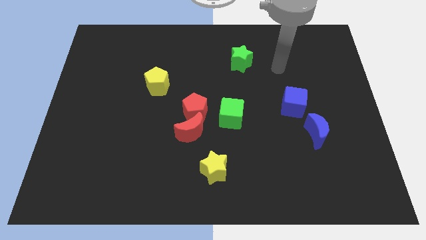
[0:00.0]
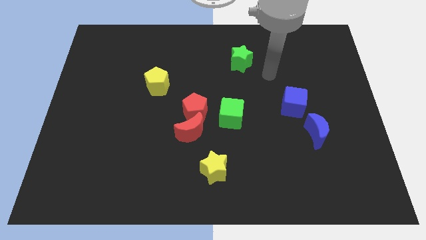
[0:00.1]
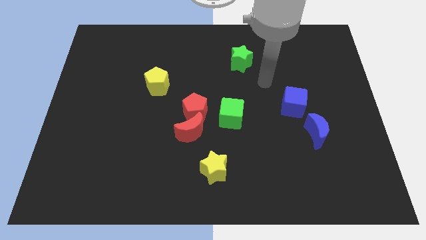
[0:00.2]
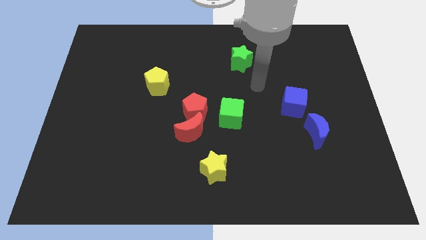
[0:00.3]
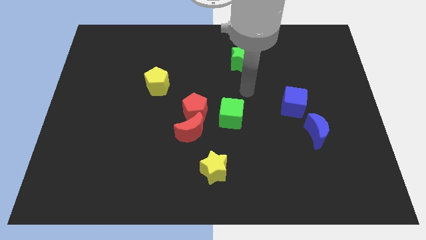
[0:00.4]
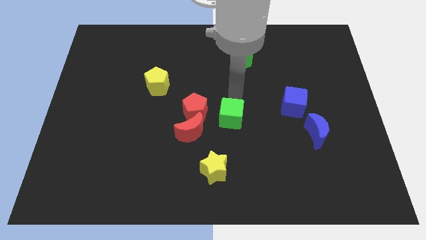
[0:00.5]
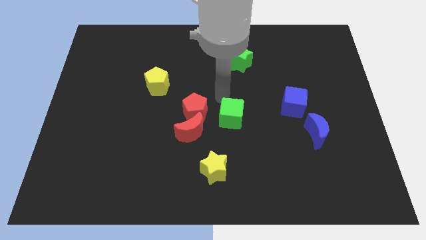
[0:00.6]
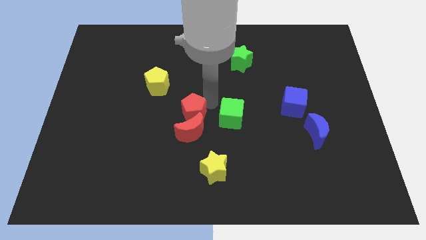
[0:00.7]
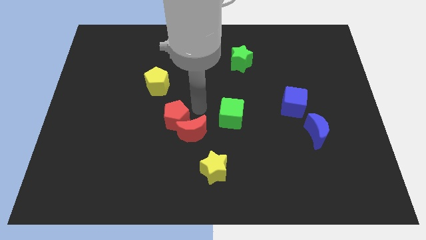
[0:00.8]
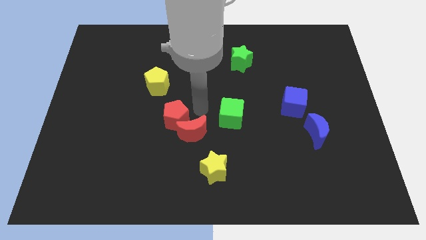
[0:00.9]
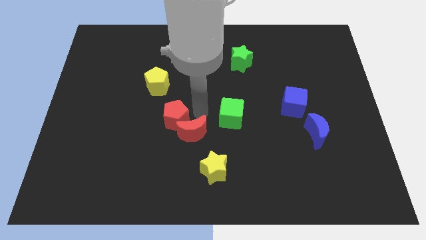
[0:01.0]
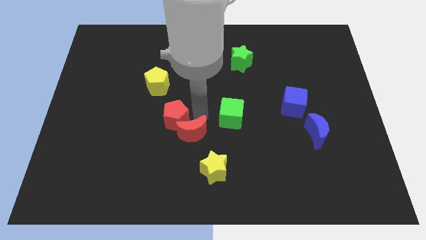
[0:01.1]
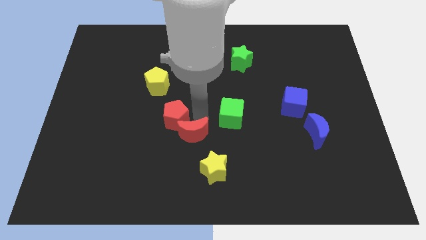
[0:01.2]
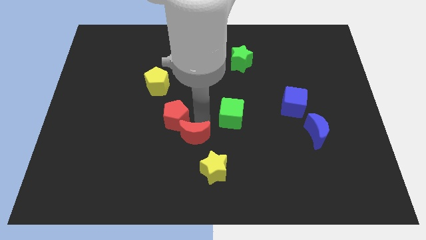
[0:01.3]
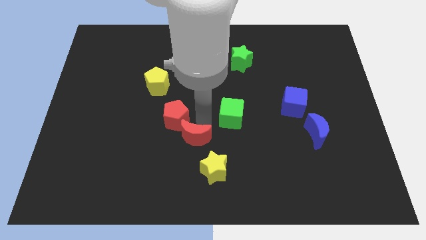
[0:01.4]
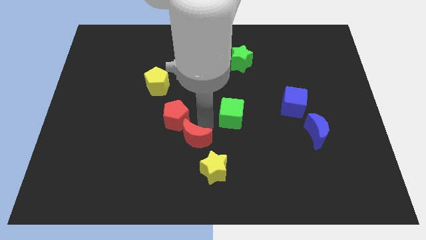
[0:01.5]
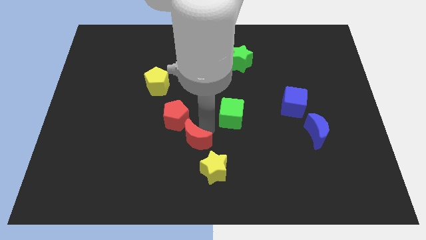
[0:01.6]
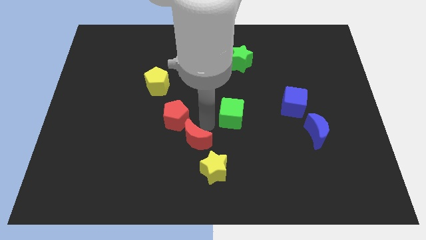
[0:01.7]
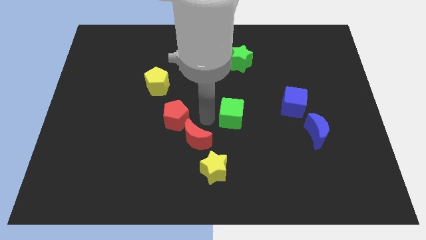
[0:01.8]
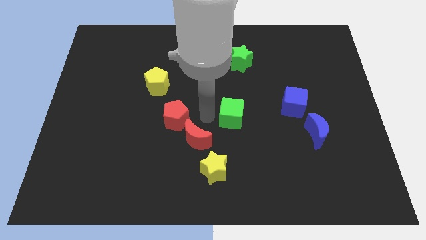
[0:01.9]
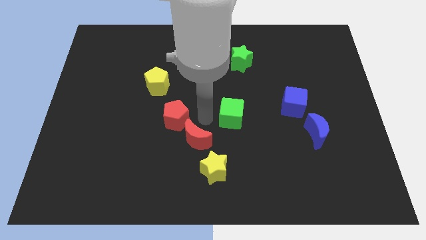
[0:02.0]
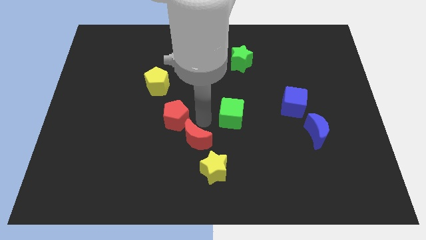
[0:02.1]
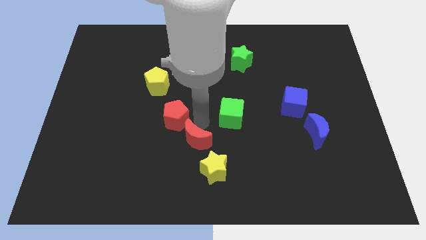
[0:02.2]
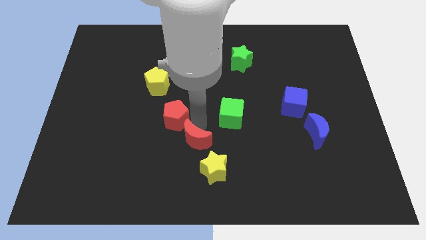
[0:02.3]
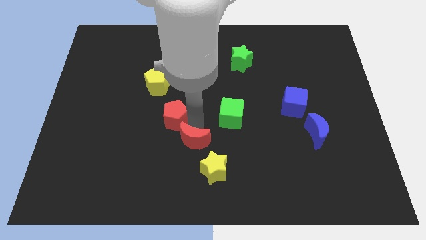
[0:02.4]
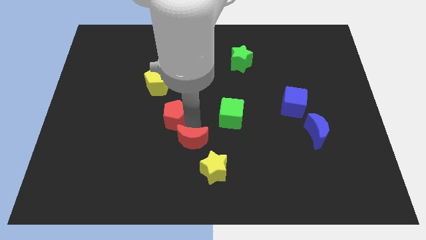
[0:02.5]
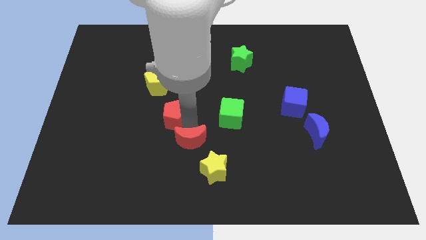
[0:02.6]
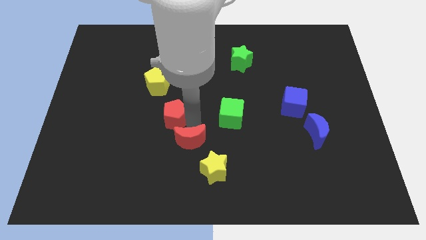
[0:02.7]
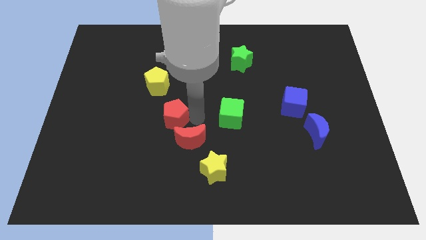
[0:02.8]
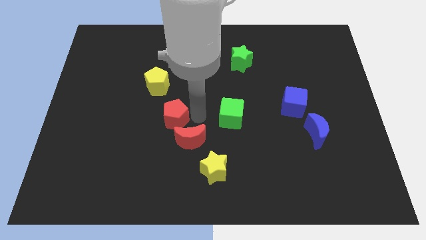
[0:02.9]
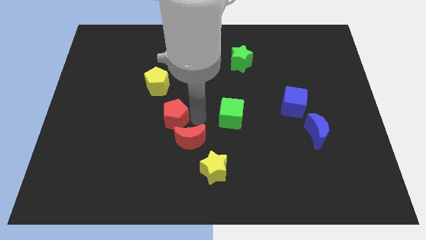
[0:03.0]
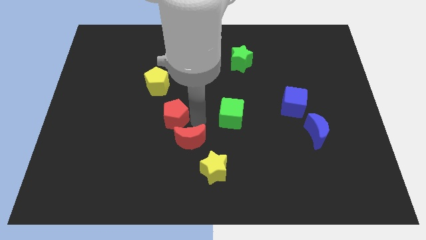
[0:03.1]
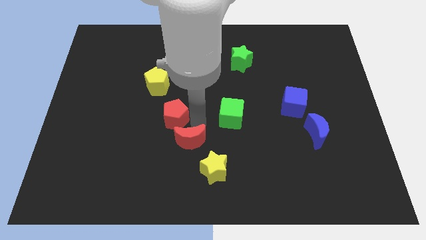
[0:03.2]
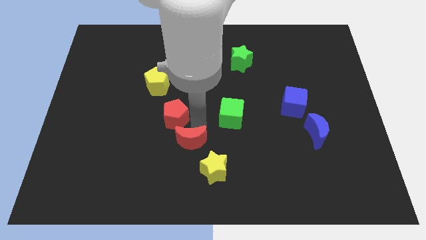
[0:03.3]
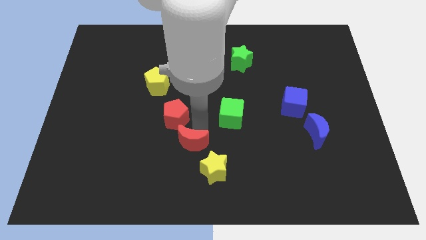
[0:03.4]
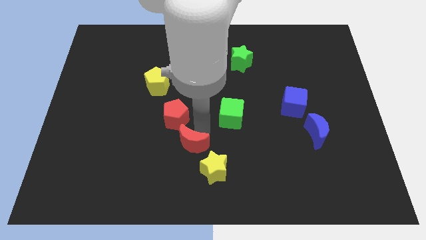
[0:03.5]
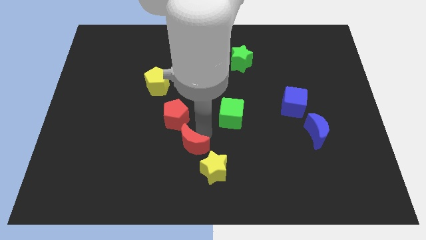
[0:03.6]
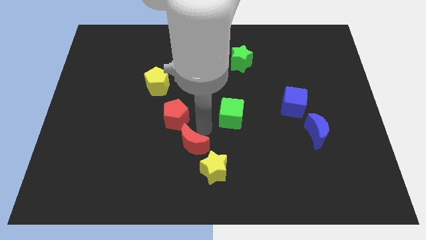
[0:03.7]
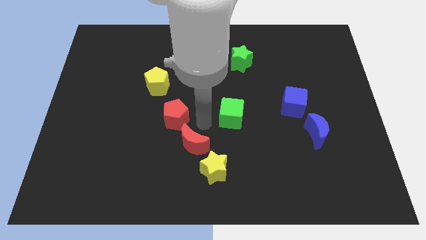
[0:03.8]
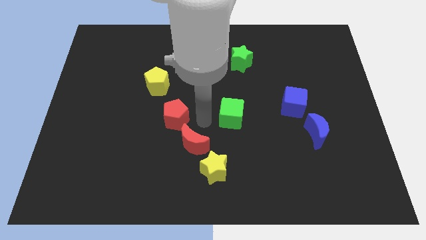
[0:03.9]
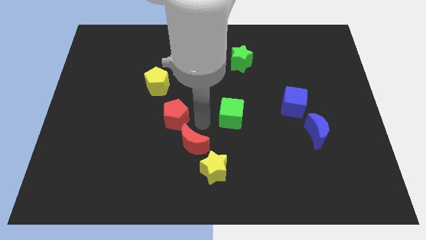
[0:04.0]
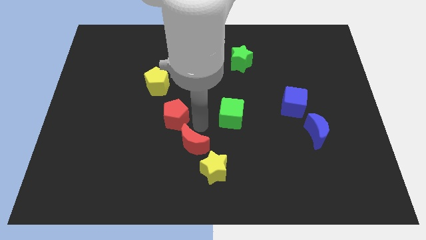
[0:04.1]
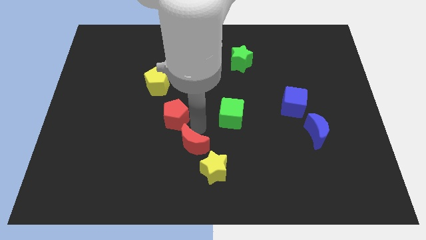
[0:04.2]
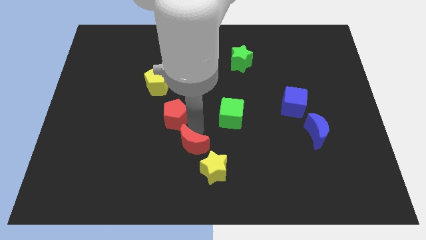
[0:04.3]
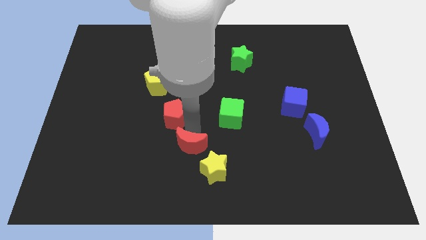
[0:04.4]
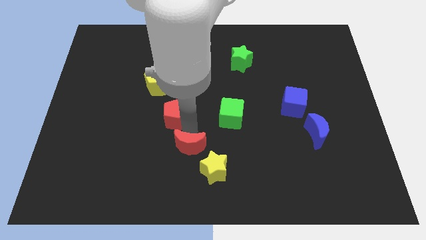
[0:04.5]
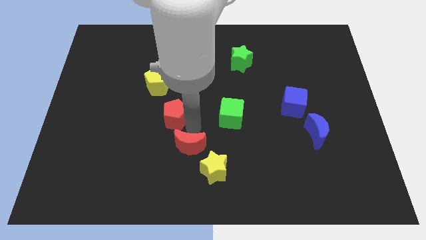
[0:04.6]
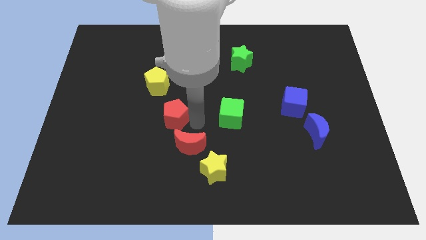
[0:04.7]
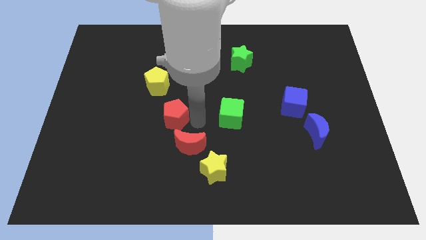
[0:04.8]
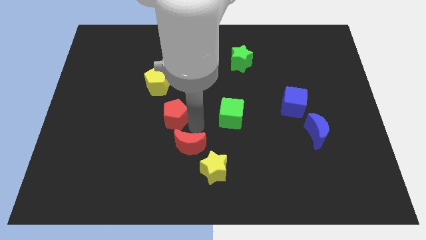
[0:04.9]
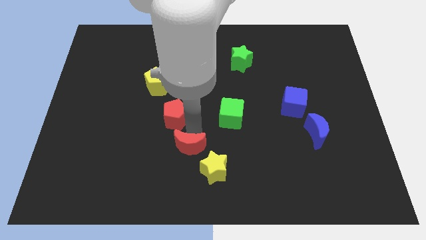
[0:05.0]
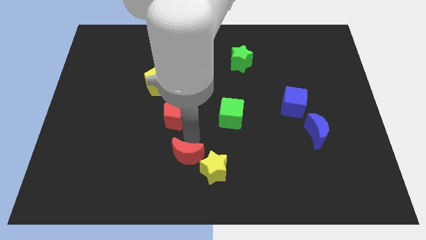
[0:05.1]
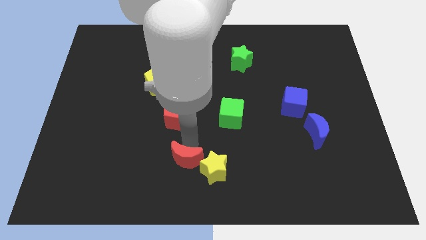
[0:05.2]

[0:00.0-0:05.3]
push the red moon to the bottom side

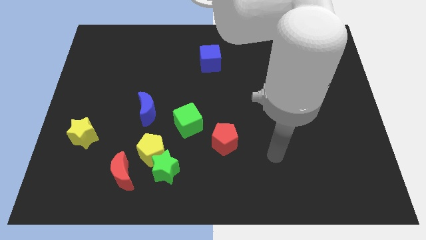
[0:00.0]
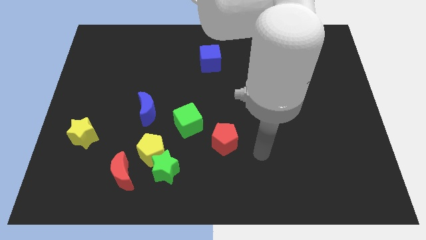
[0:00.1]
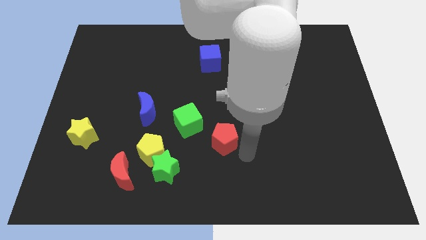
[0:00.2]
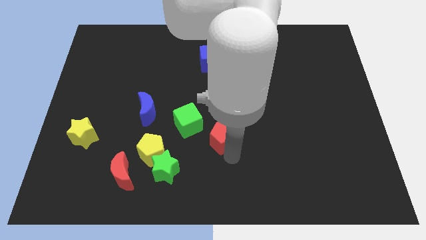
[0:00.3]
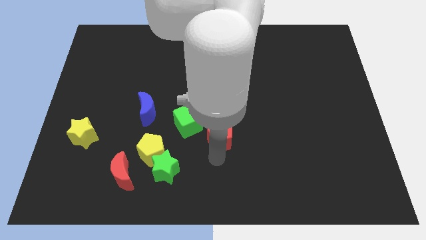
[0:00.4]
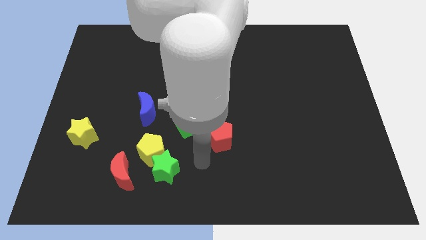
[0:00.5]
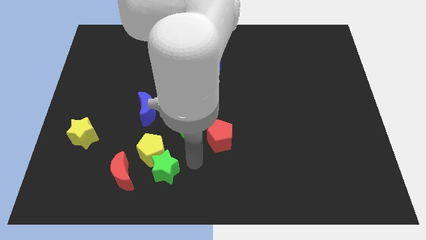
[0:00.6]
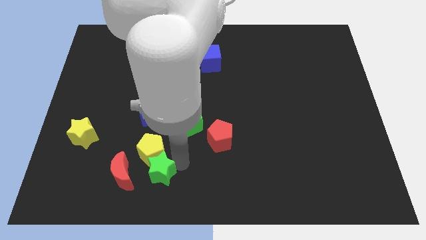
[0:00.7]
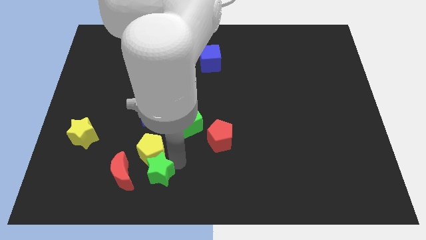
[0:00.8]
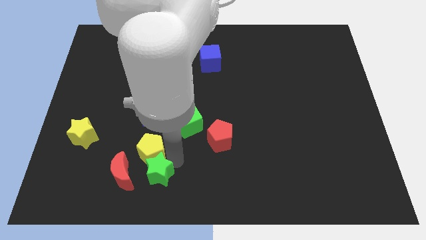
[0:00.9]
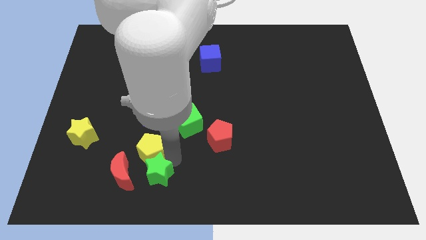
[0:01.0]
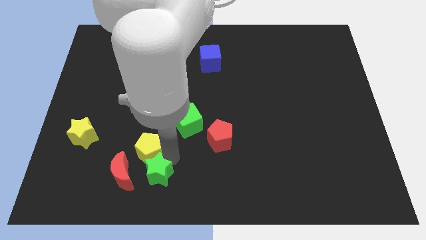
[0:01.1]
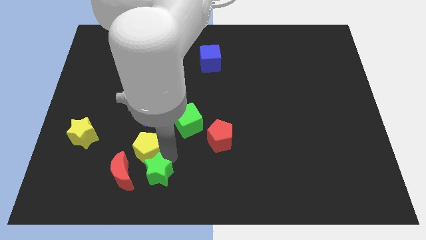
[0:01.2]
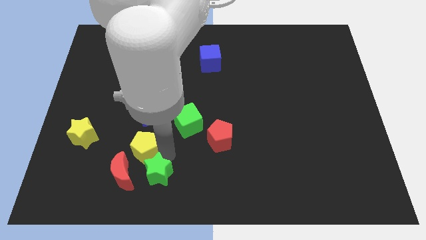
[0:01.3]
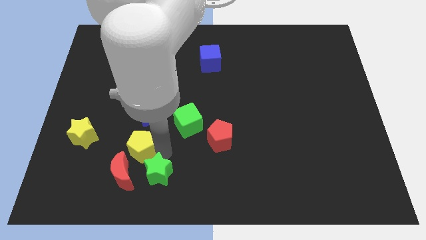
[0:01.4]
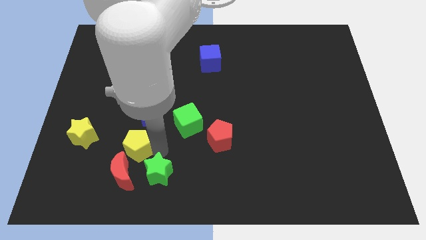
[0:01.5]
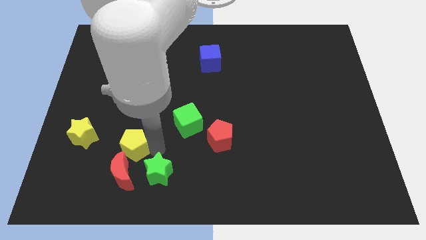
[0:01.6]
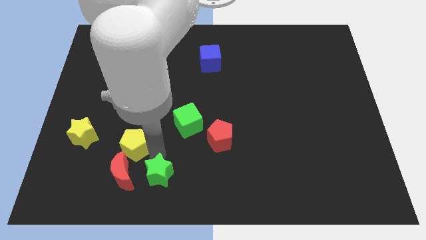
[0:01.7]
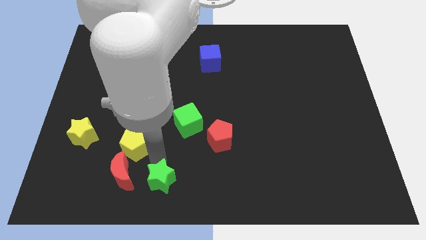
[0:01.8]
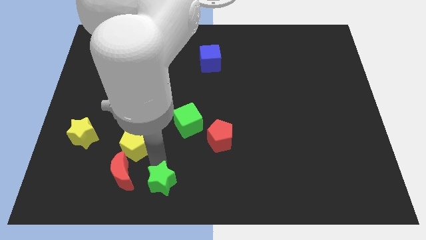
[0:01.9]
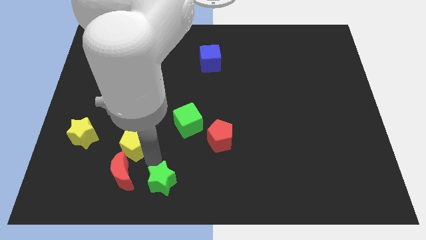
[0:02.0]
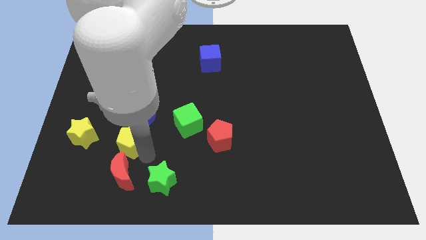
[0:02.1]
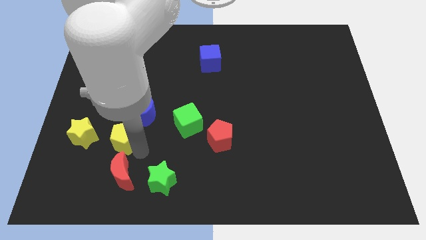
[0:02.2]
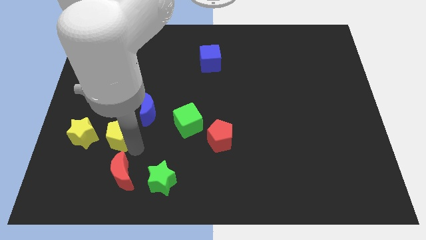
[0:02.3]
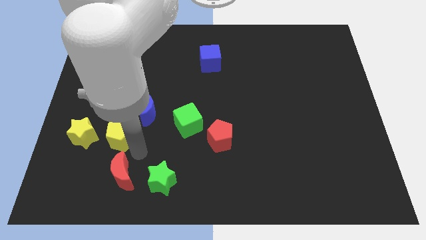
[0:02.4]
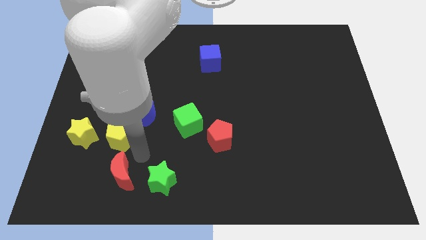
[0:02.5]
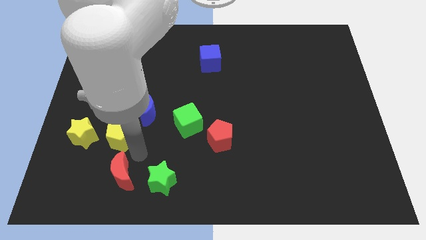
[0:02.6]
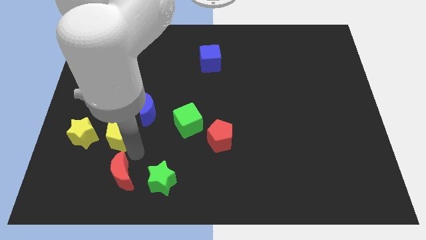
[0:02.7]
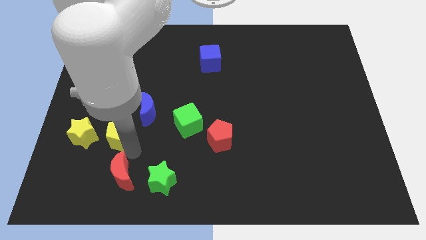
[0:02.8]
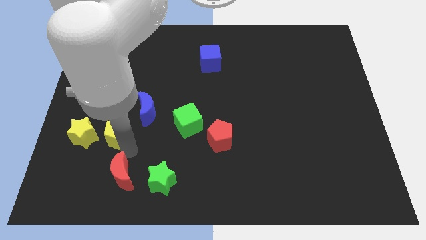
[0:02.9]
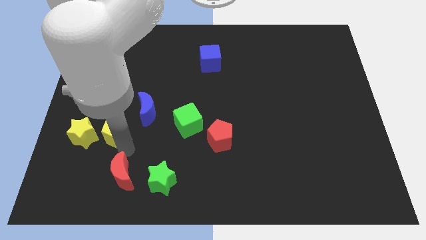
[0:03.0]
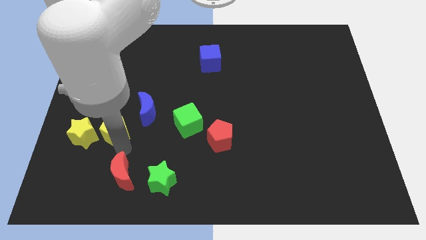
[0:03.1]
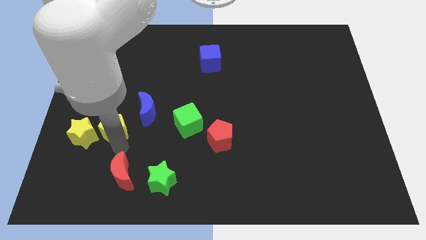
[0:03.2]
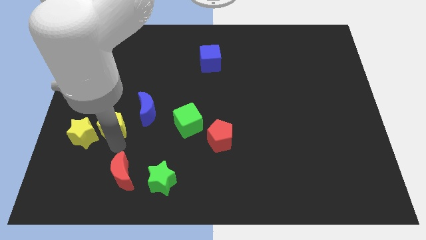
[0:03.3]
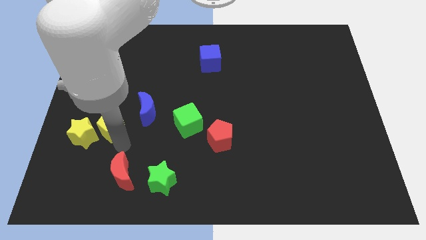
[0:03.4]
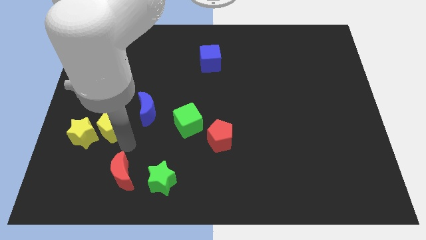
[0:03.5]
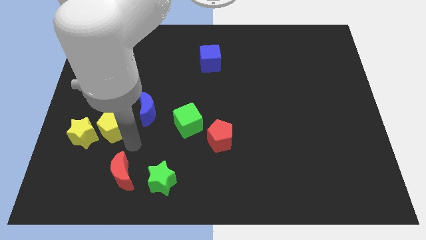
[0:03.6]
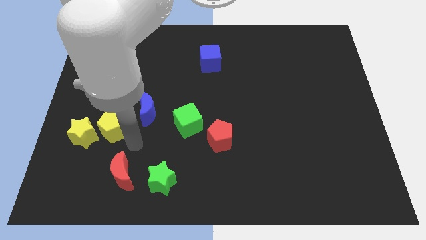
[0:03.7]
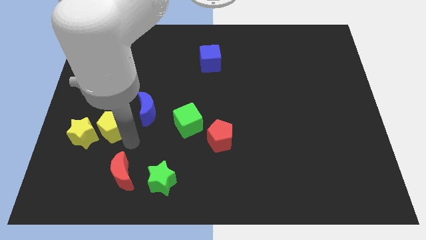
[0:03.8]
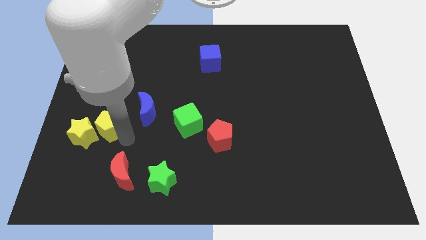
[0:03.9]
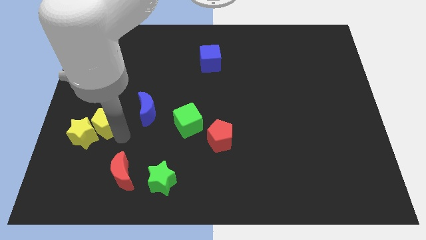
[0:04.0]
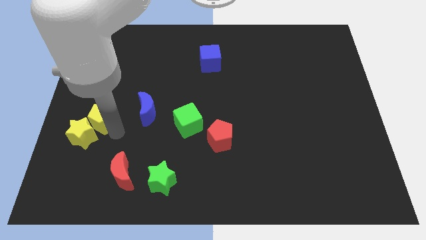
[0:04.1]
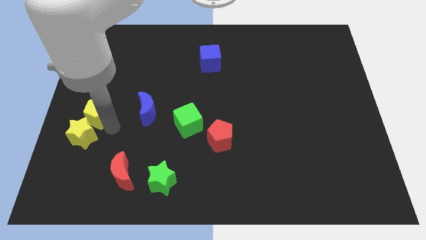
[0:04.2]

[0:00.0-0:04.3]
push the yellow pentagon to the left side
